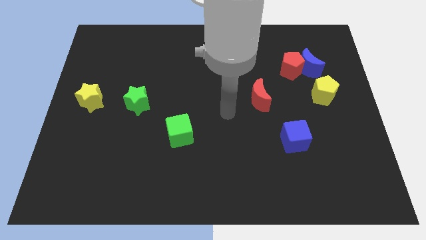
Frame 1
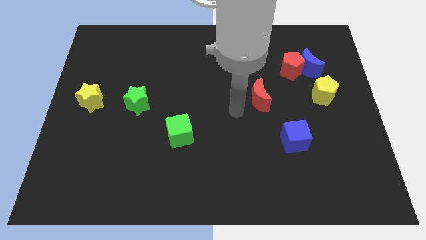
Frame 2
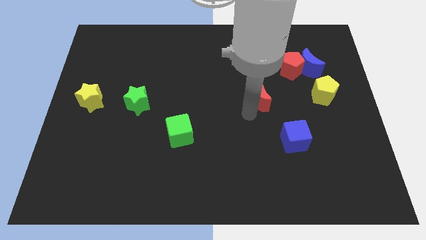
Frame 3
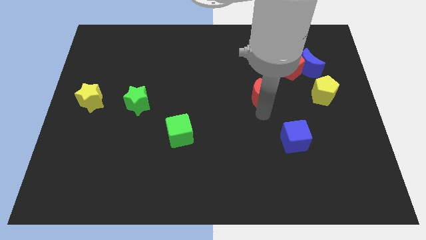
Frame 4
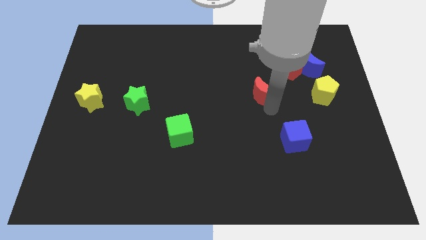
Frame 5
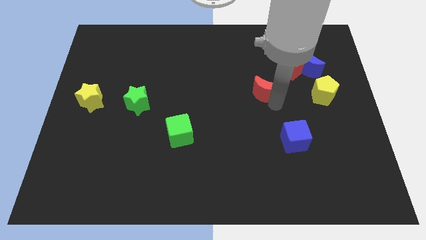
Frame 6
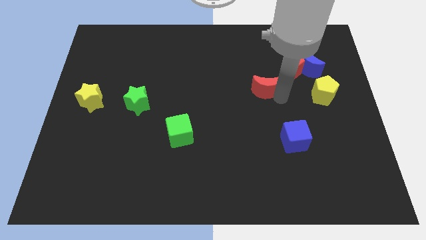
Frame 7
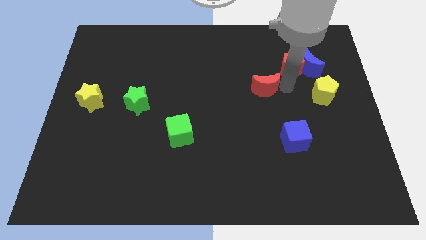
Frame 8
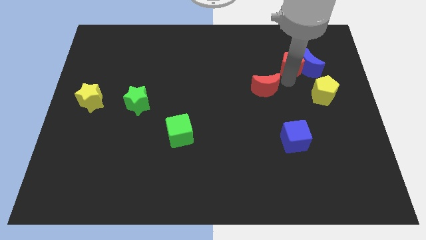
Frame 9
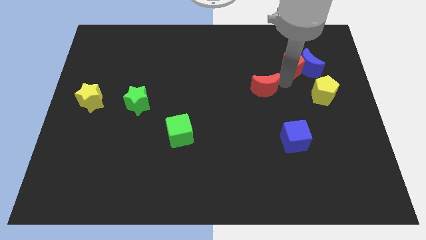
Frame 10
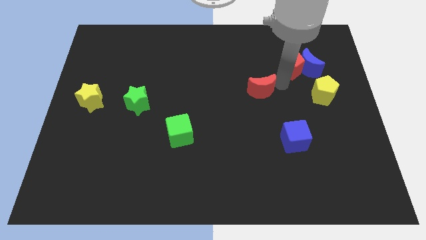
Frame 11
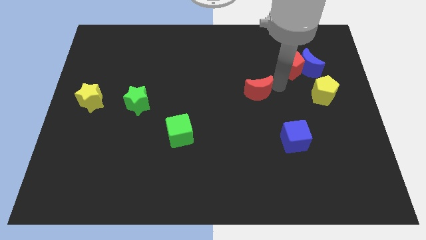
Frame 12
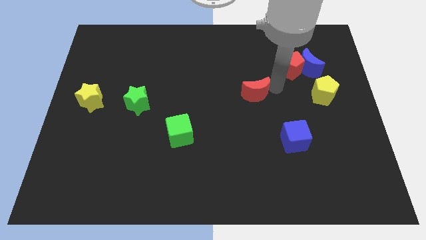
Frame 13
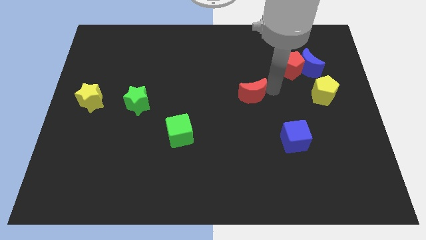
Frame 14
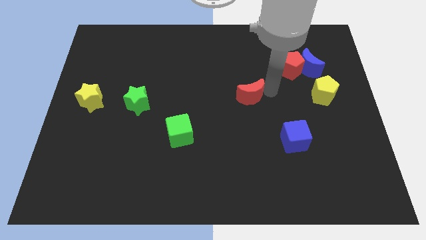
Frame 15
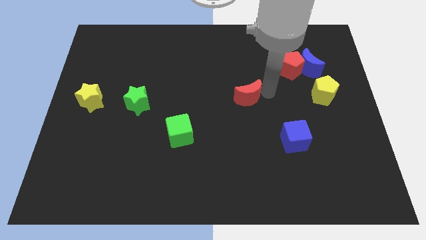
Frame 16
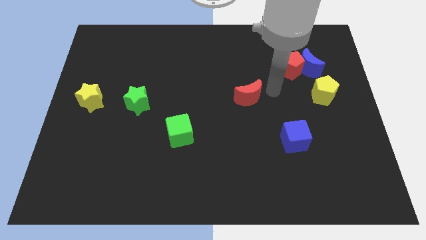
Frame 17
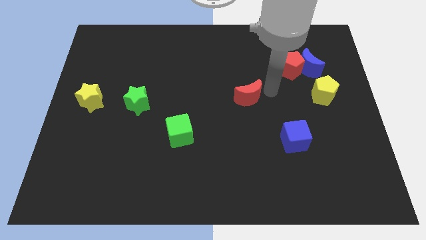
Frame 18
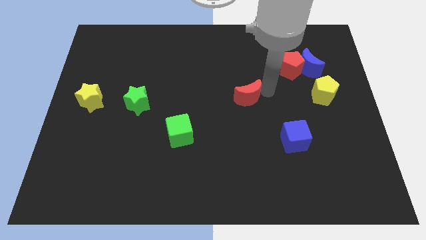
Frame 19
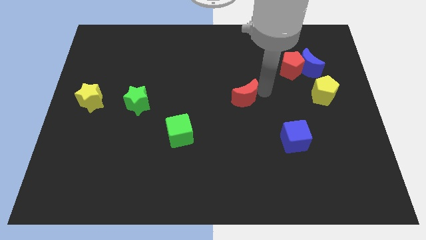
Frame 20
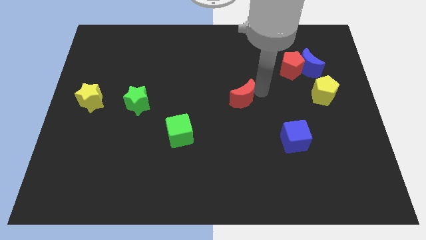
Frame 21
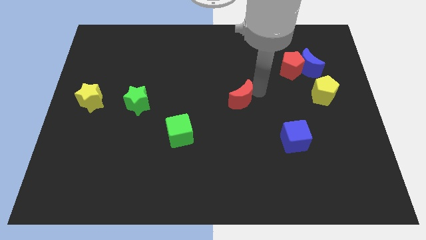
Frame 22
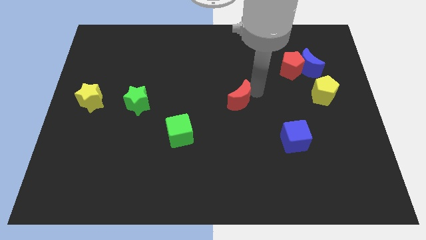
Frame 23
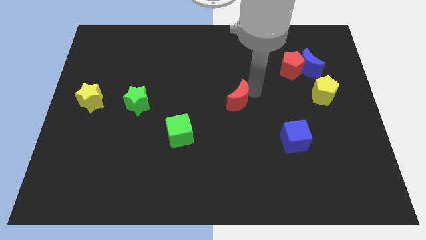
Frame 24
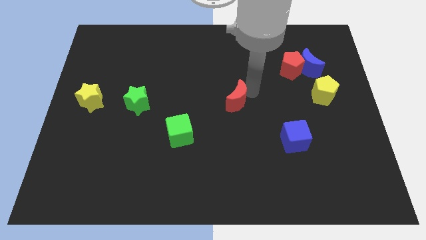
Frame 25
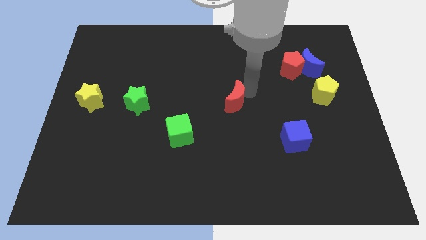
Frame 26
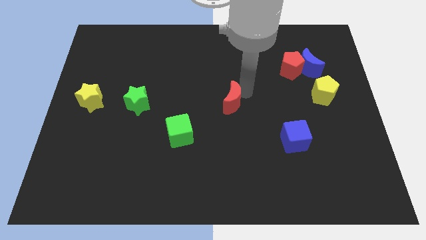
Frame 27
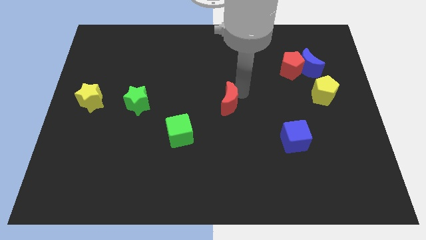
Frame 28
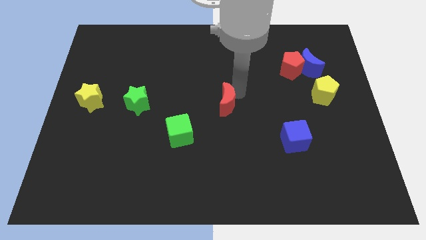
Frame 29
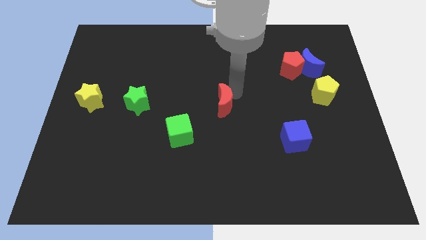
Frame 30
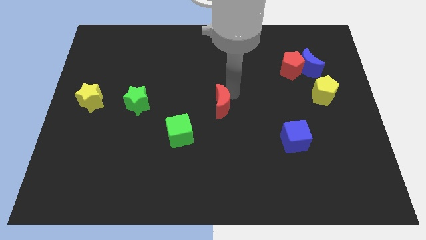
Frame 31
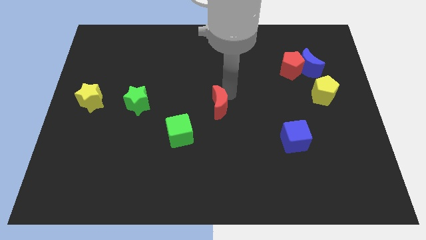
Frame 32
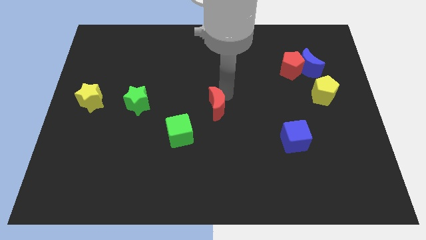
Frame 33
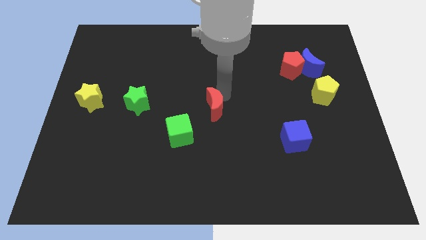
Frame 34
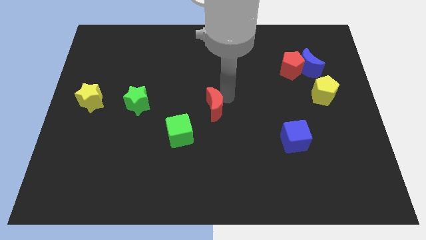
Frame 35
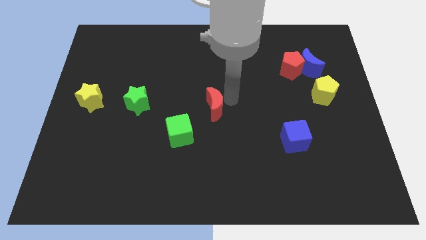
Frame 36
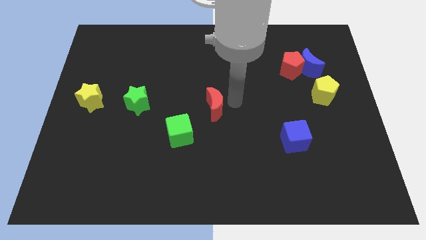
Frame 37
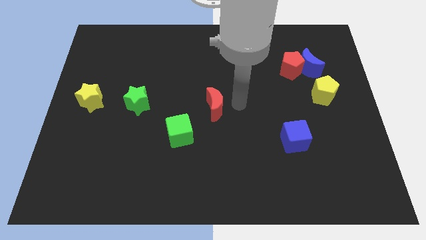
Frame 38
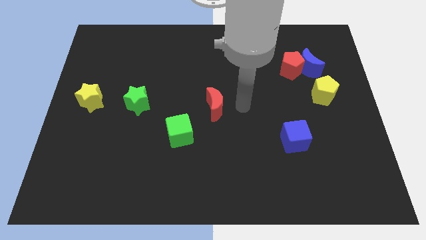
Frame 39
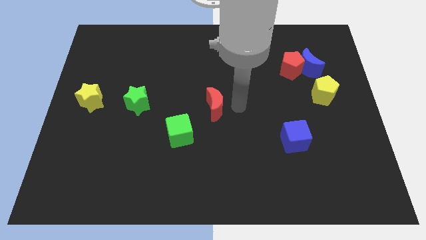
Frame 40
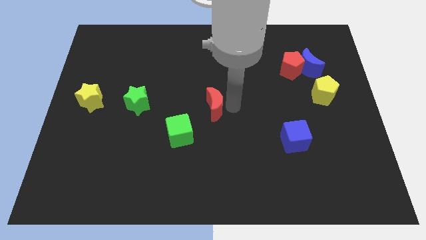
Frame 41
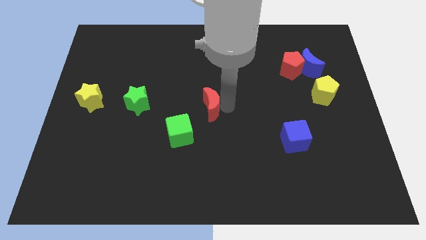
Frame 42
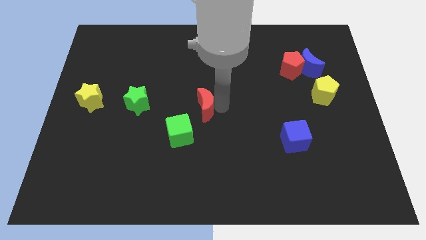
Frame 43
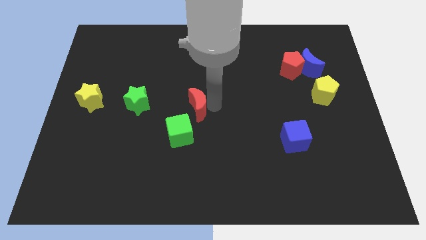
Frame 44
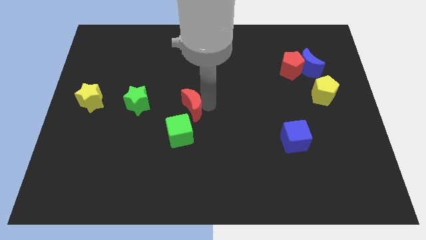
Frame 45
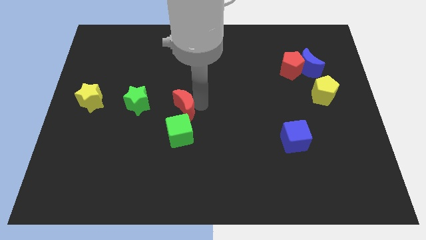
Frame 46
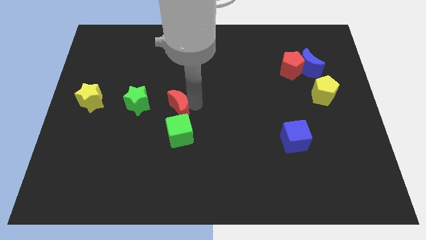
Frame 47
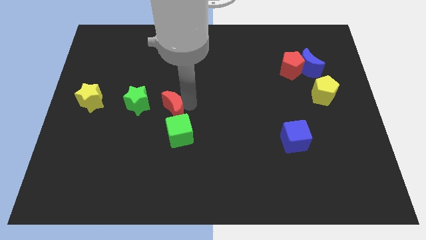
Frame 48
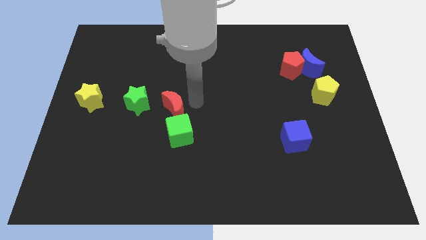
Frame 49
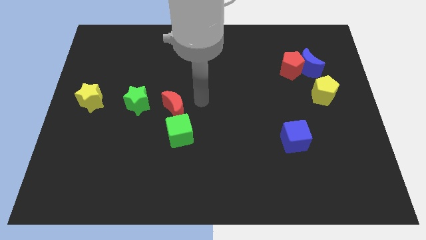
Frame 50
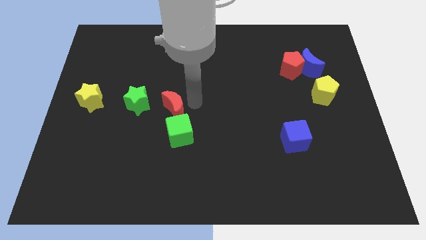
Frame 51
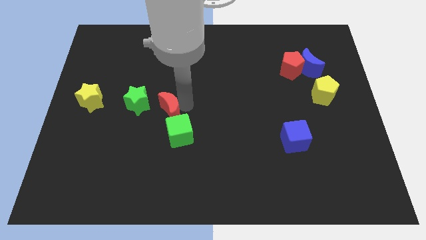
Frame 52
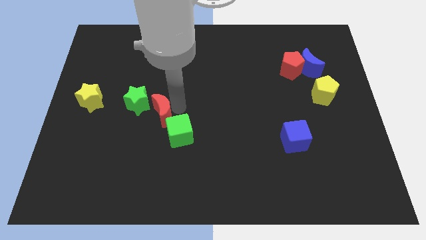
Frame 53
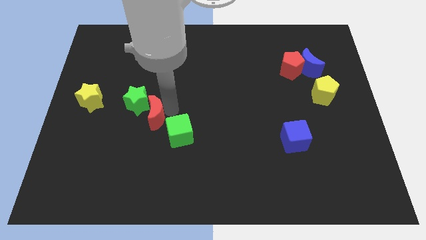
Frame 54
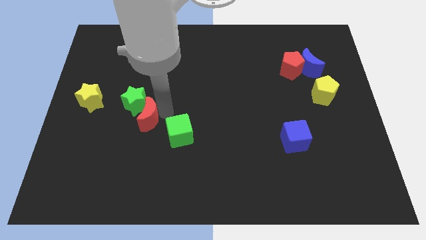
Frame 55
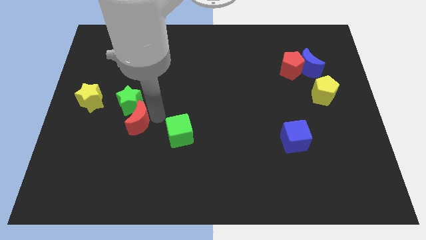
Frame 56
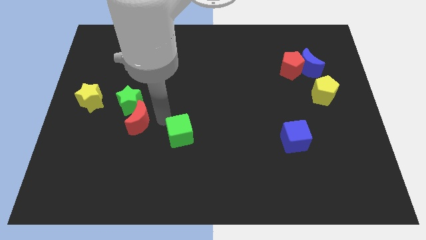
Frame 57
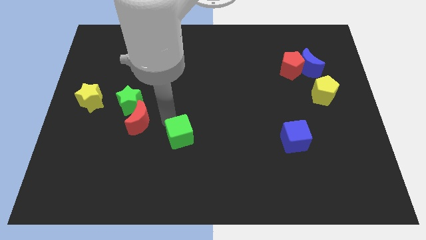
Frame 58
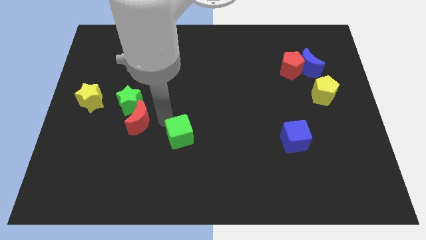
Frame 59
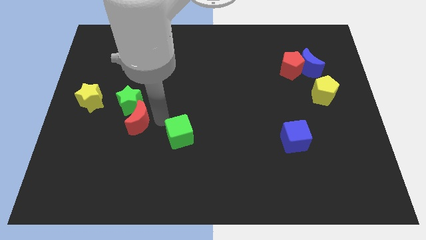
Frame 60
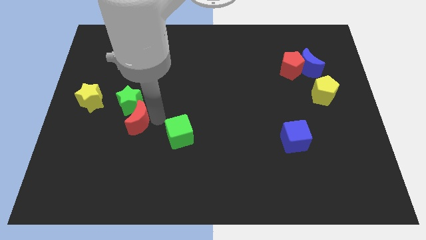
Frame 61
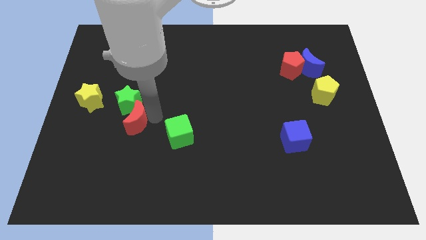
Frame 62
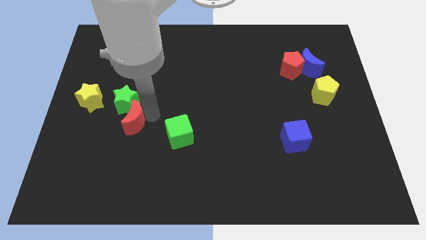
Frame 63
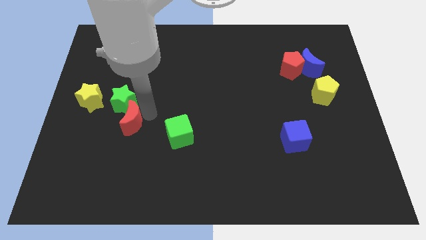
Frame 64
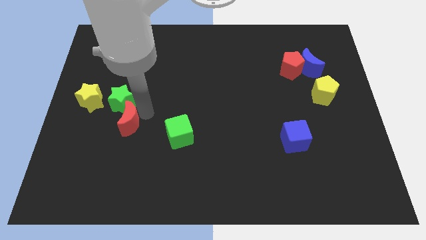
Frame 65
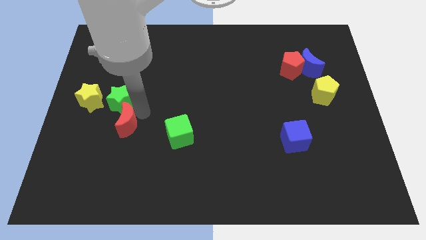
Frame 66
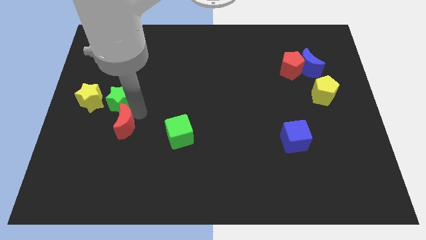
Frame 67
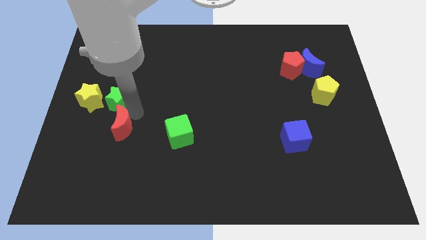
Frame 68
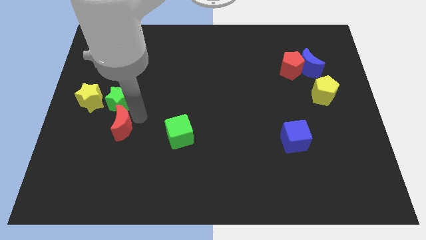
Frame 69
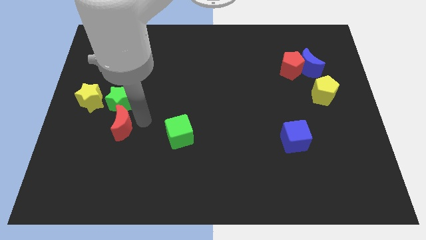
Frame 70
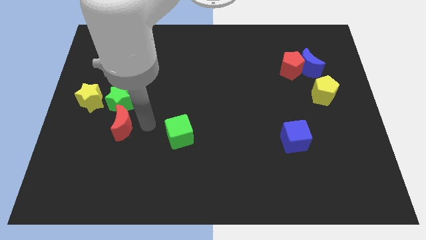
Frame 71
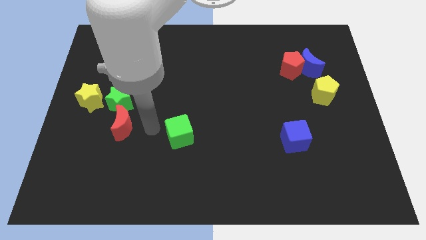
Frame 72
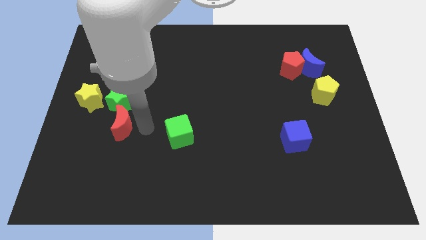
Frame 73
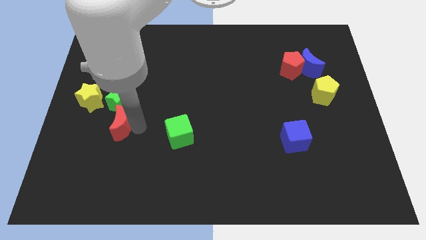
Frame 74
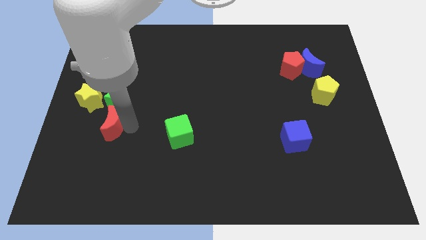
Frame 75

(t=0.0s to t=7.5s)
put the red moon diagonally down and to the left of the green star

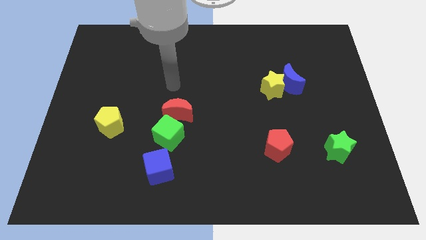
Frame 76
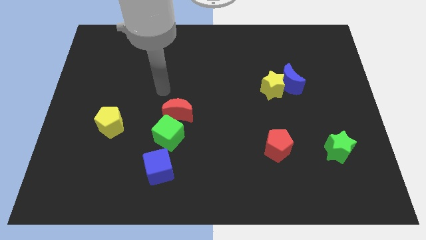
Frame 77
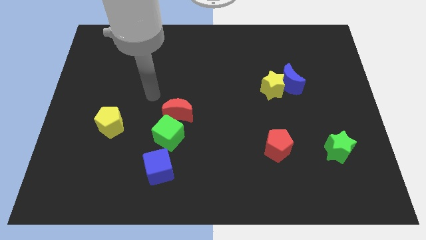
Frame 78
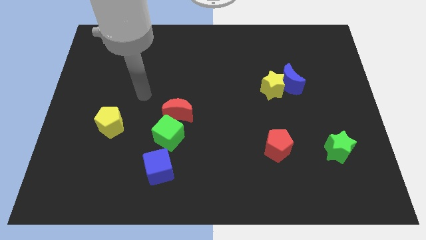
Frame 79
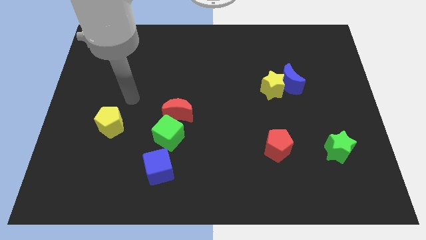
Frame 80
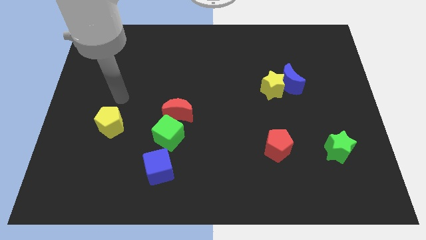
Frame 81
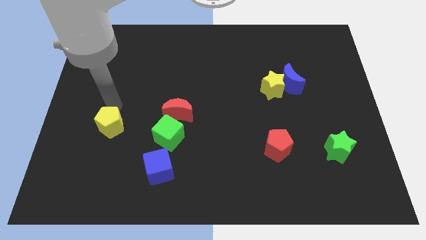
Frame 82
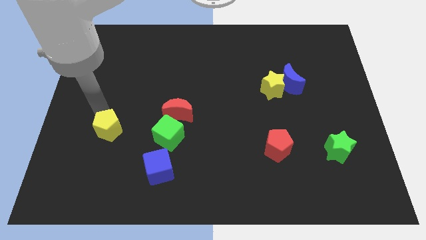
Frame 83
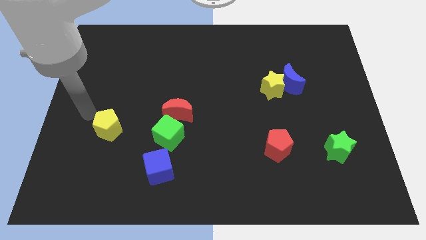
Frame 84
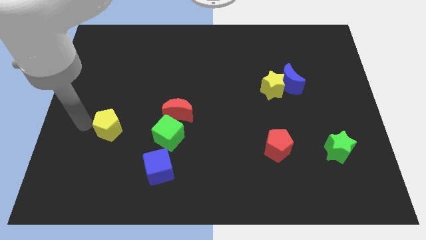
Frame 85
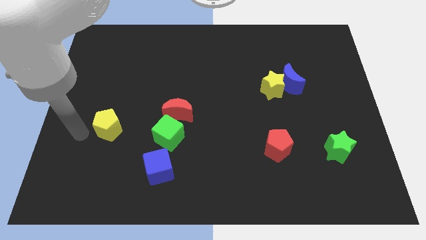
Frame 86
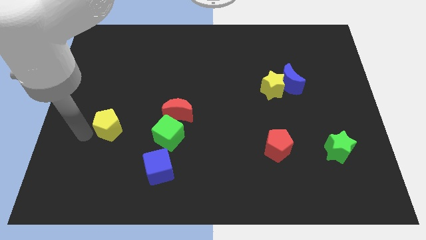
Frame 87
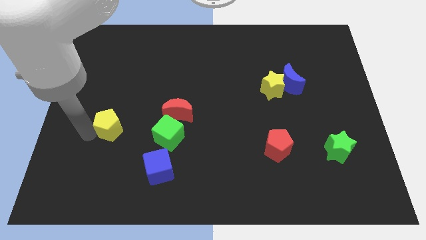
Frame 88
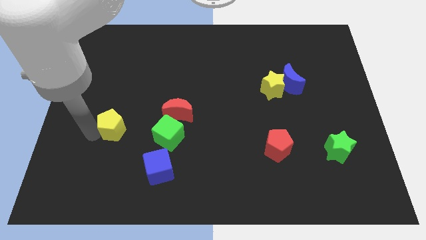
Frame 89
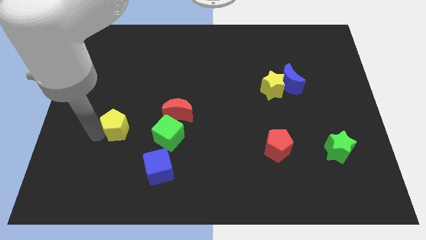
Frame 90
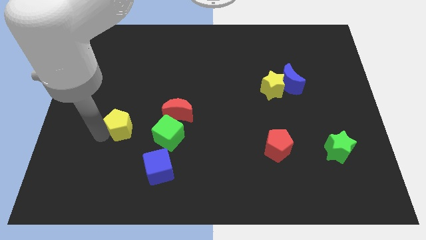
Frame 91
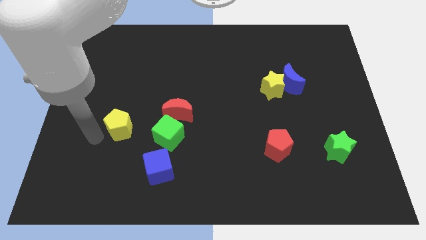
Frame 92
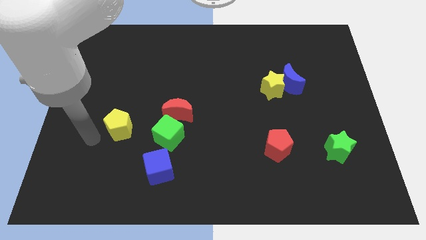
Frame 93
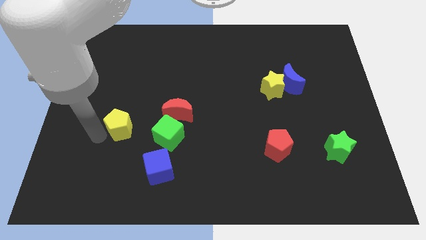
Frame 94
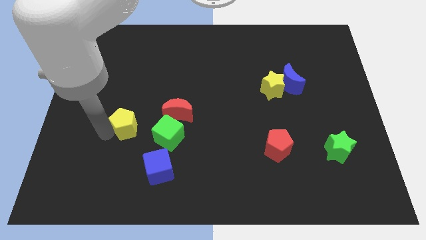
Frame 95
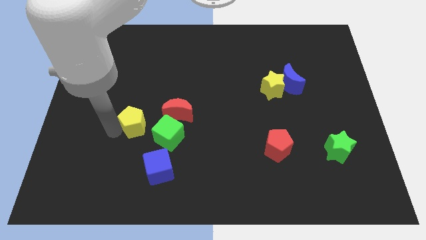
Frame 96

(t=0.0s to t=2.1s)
move the yellow pentagon to the top left of the green cube
